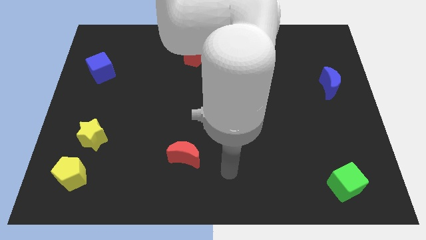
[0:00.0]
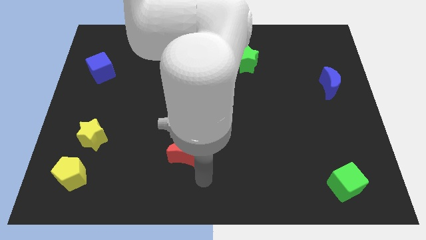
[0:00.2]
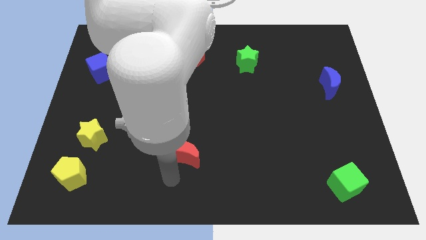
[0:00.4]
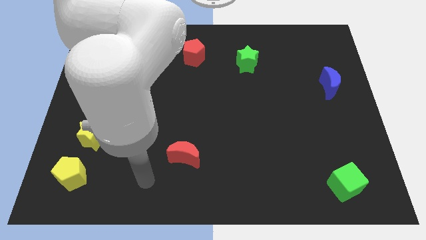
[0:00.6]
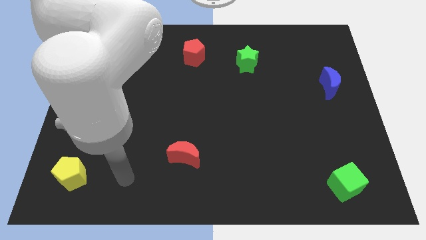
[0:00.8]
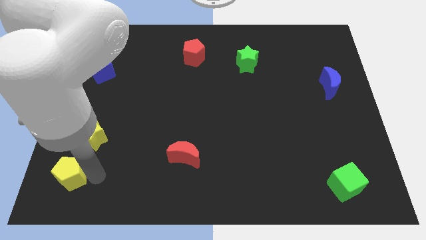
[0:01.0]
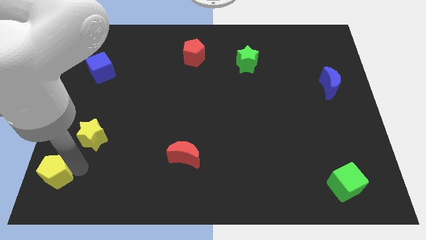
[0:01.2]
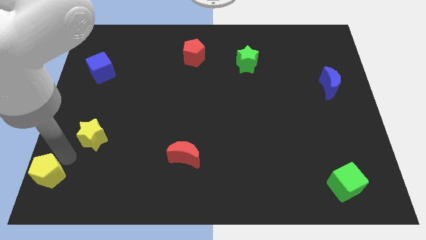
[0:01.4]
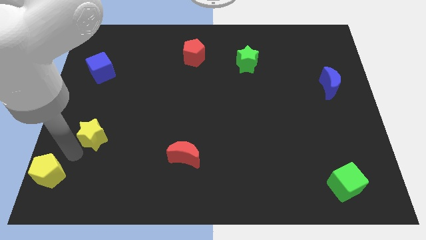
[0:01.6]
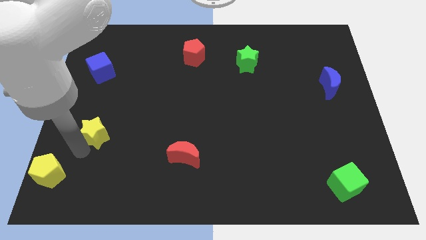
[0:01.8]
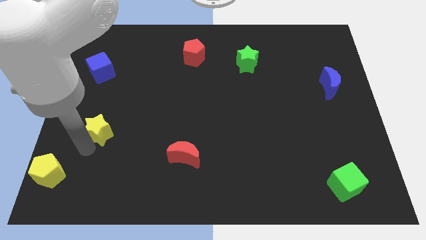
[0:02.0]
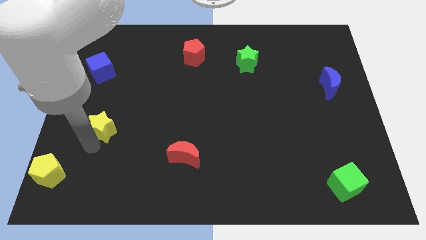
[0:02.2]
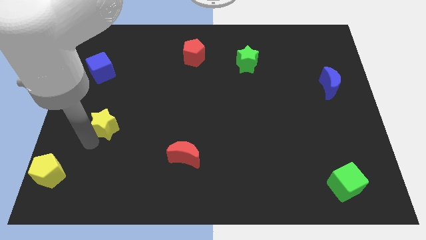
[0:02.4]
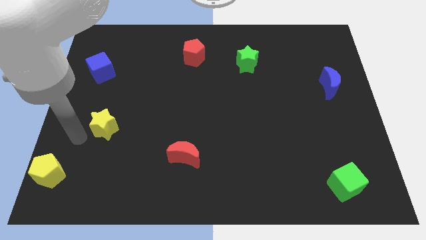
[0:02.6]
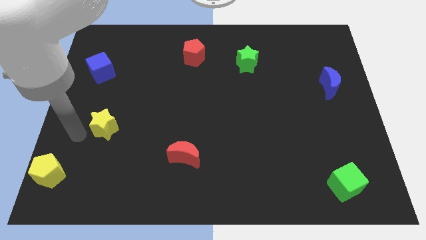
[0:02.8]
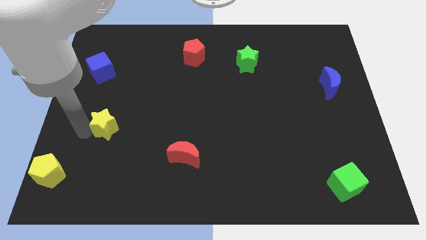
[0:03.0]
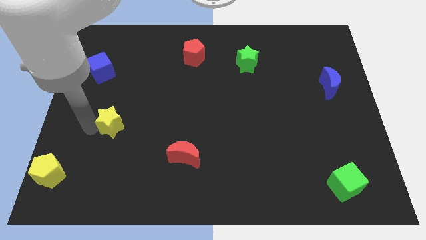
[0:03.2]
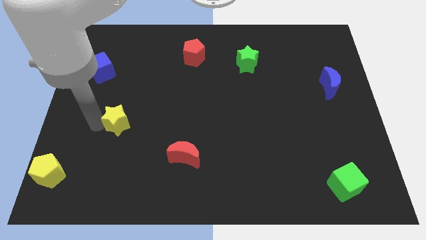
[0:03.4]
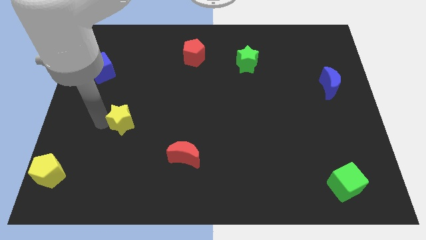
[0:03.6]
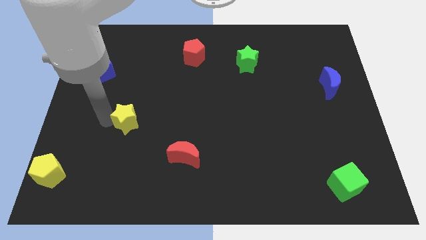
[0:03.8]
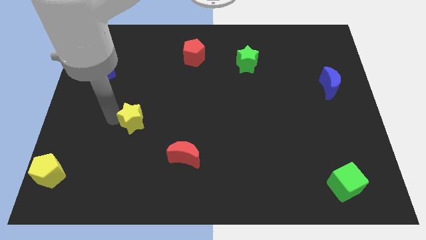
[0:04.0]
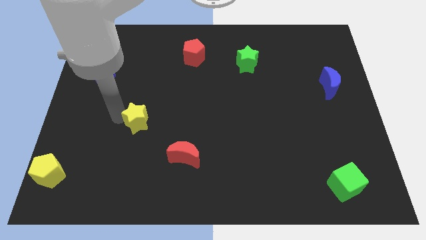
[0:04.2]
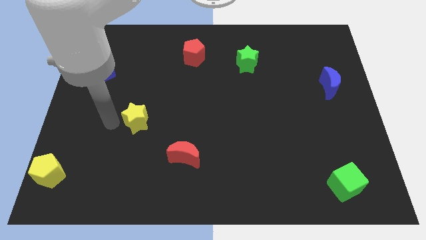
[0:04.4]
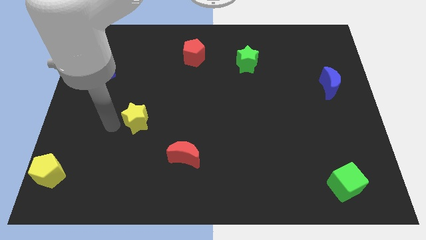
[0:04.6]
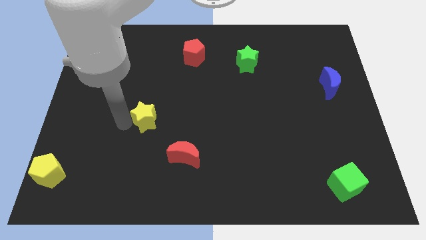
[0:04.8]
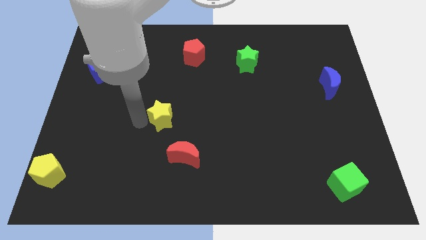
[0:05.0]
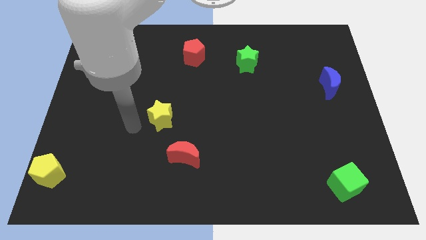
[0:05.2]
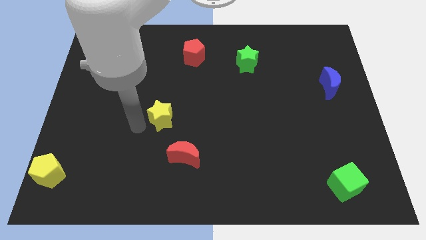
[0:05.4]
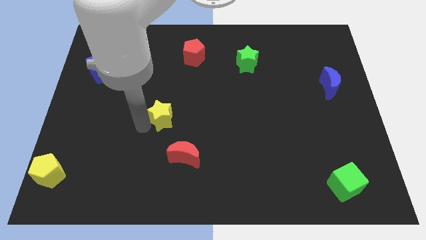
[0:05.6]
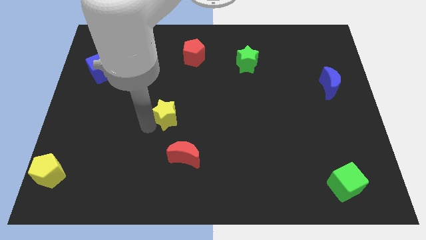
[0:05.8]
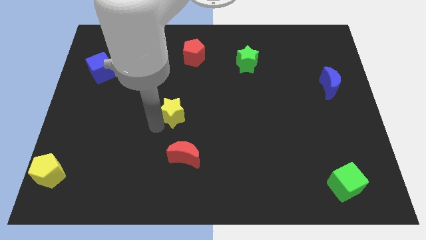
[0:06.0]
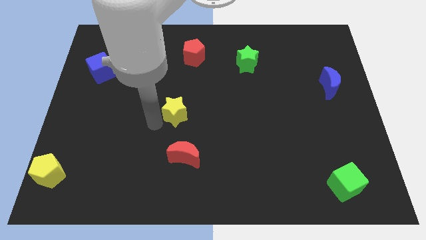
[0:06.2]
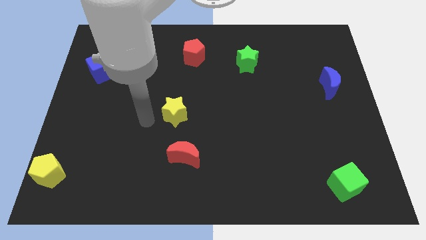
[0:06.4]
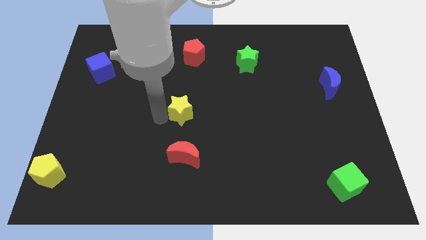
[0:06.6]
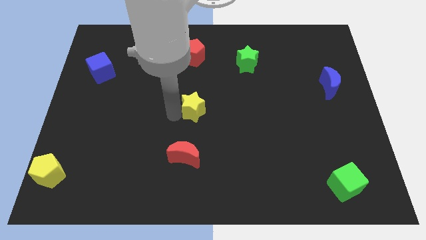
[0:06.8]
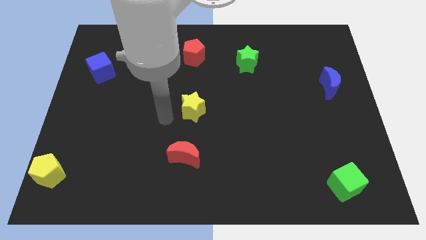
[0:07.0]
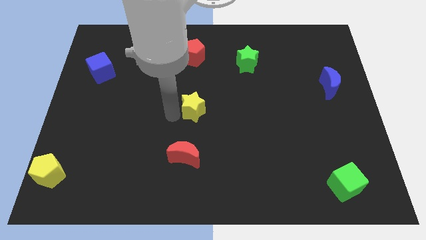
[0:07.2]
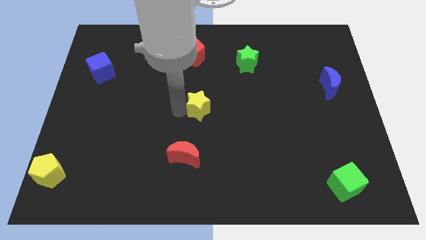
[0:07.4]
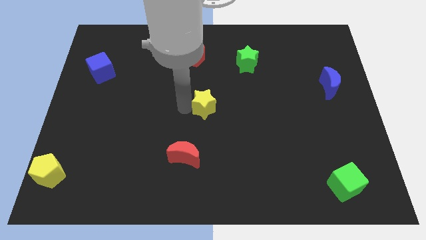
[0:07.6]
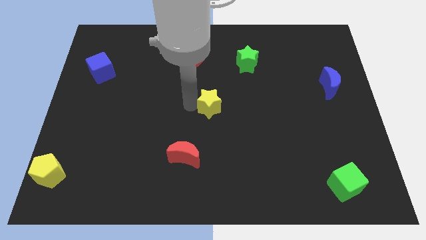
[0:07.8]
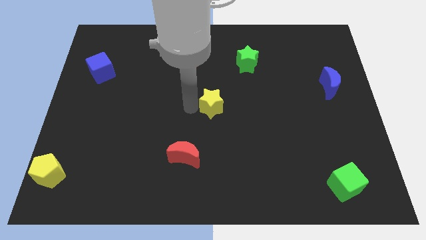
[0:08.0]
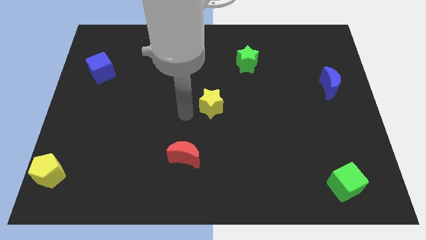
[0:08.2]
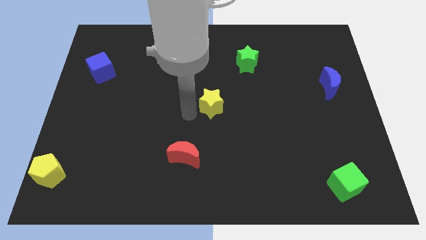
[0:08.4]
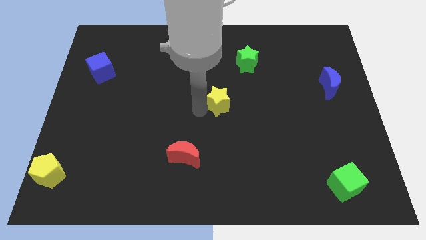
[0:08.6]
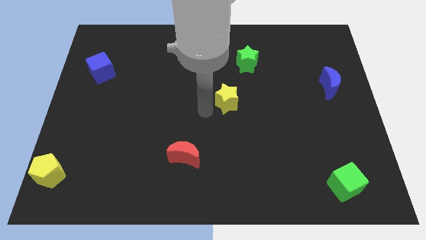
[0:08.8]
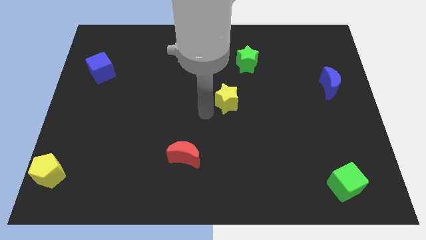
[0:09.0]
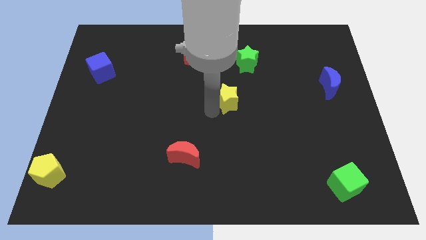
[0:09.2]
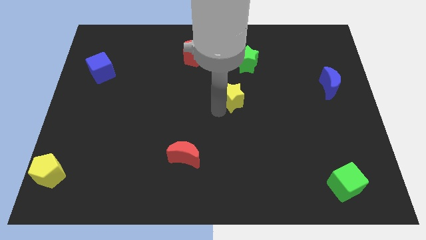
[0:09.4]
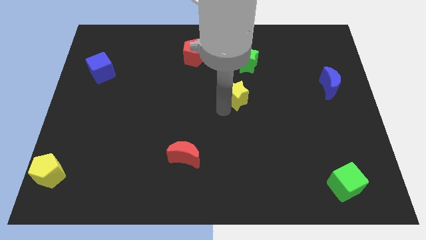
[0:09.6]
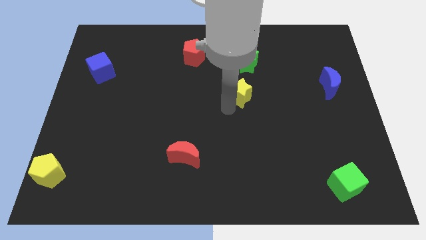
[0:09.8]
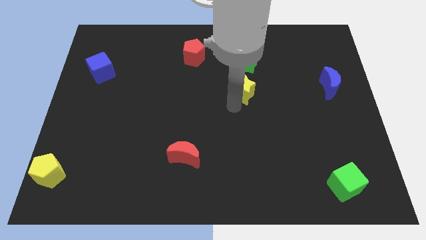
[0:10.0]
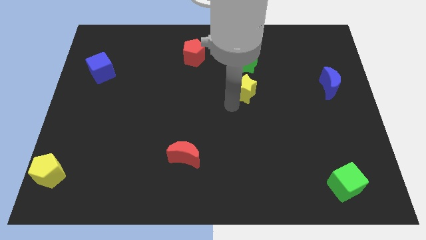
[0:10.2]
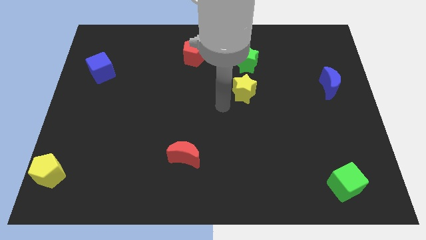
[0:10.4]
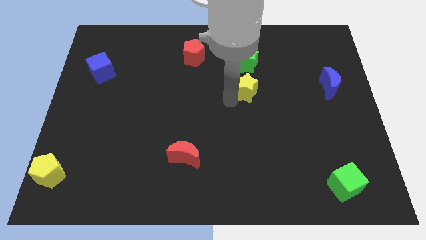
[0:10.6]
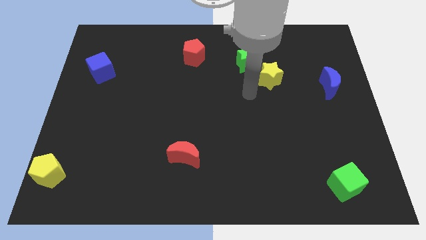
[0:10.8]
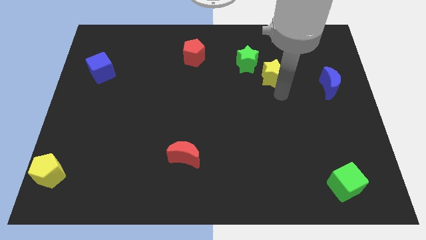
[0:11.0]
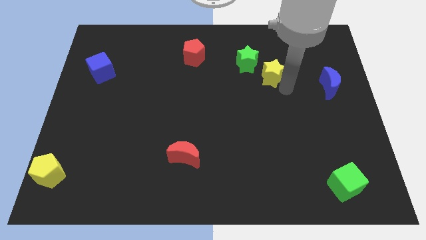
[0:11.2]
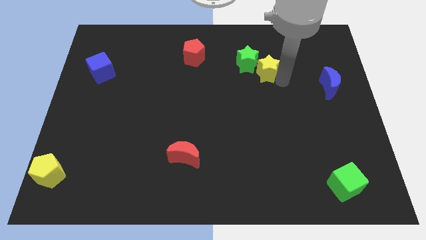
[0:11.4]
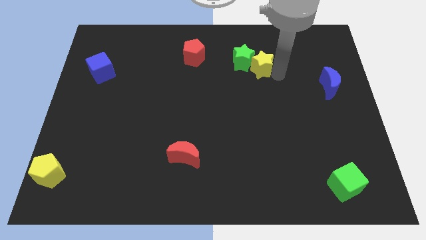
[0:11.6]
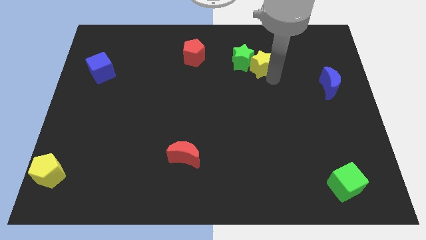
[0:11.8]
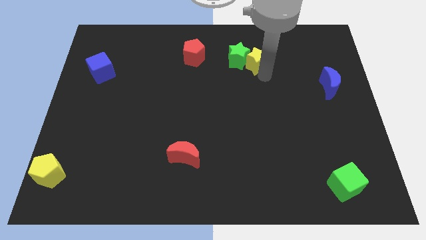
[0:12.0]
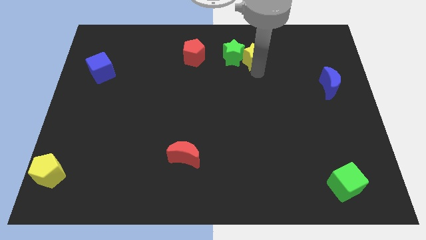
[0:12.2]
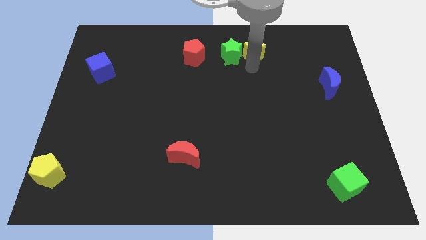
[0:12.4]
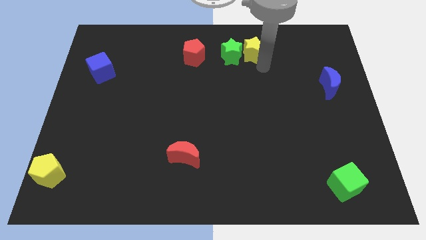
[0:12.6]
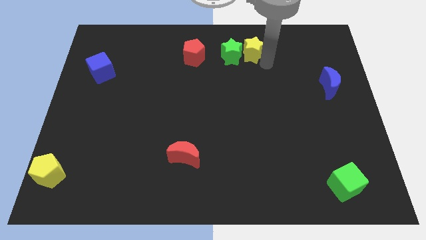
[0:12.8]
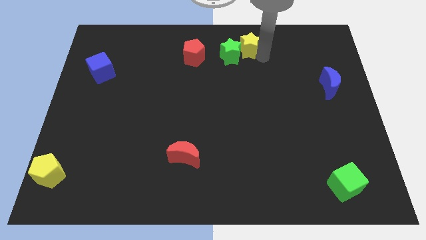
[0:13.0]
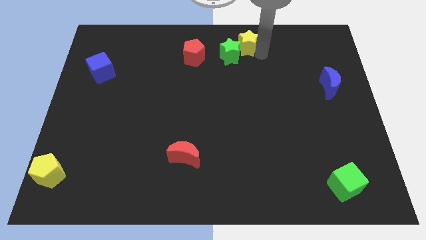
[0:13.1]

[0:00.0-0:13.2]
push the yellow star to the top side
